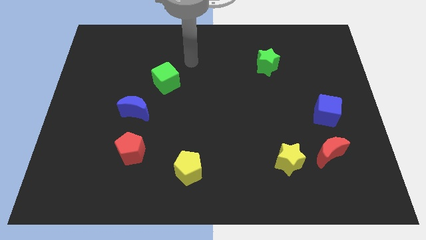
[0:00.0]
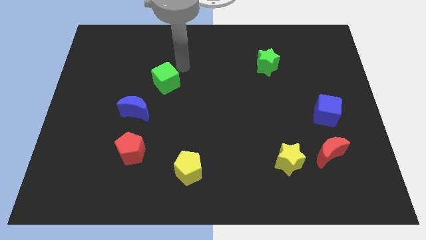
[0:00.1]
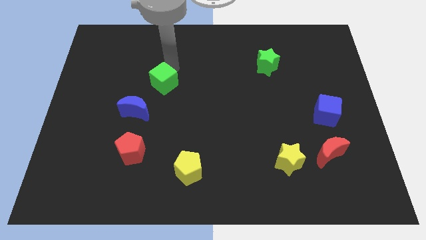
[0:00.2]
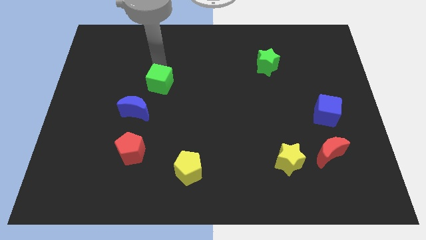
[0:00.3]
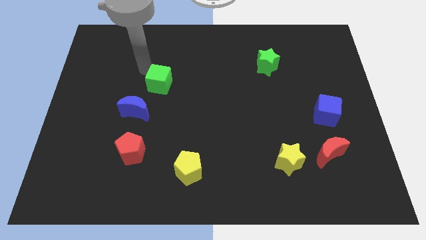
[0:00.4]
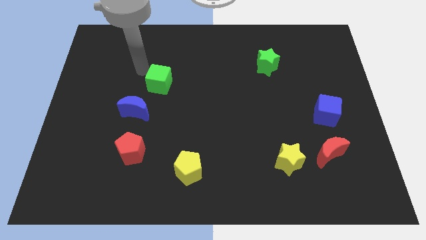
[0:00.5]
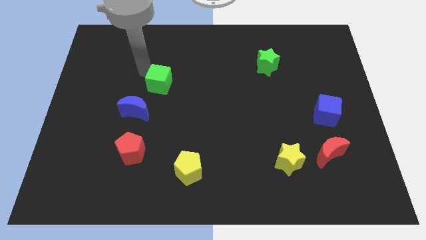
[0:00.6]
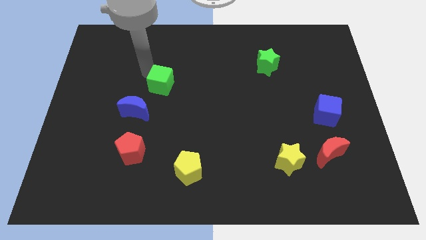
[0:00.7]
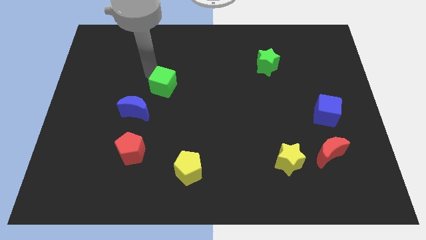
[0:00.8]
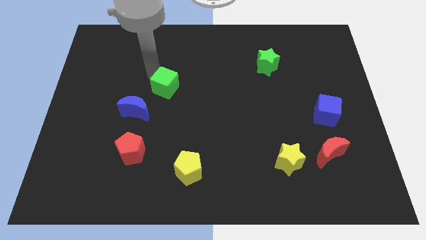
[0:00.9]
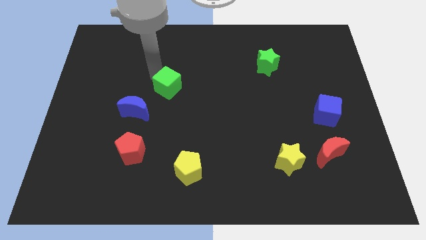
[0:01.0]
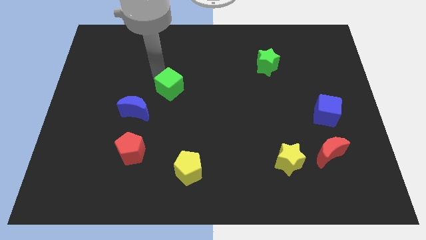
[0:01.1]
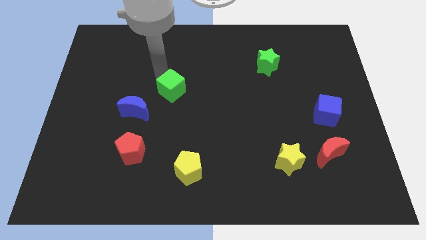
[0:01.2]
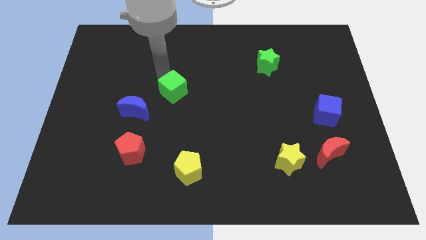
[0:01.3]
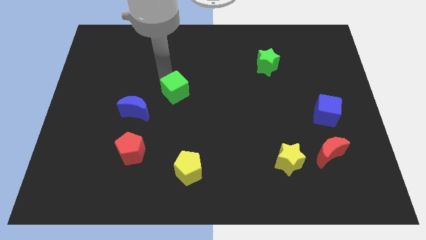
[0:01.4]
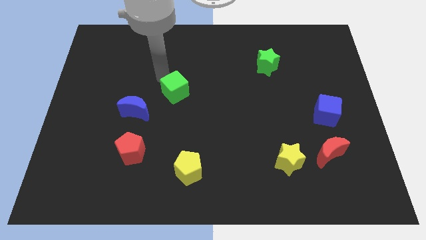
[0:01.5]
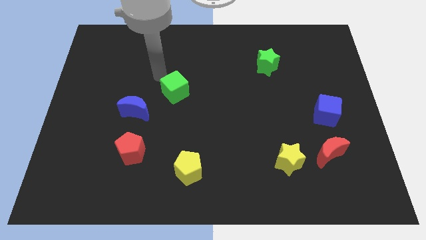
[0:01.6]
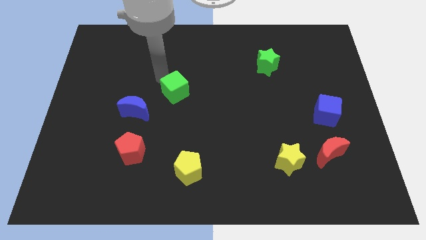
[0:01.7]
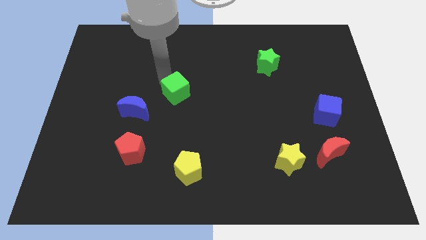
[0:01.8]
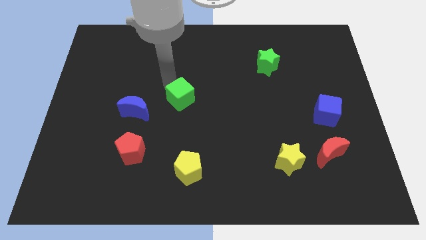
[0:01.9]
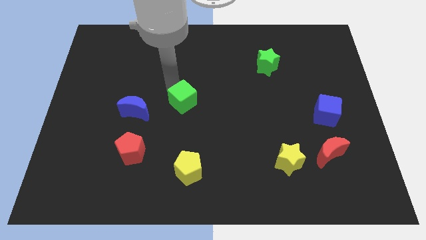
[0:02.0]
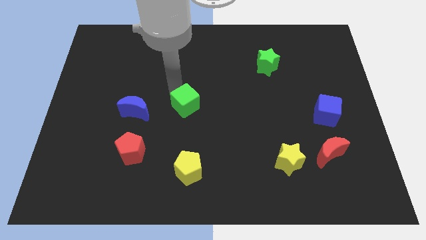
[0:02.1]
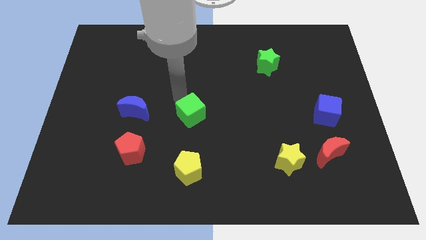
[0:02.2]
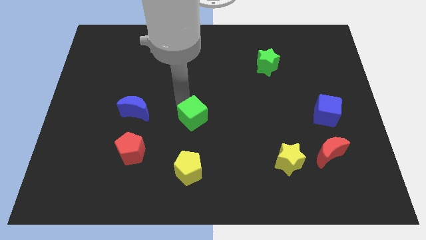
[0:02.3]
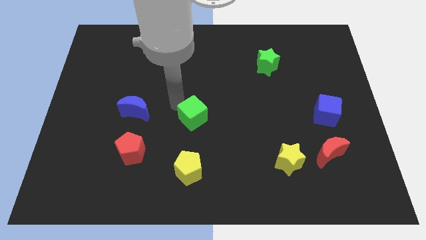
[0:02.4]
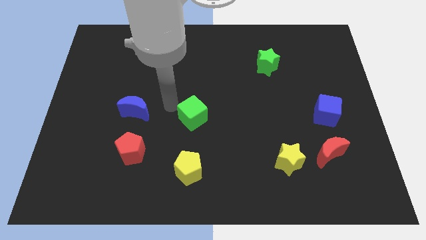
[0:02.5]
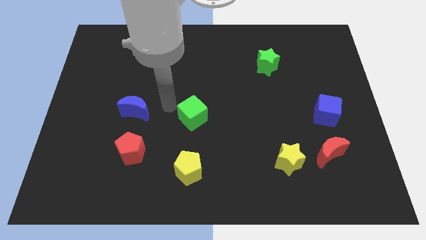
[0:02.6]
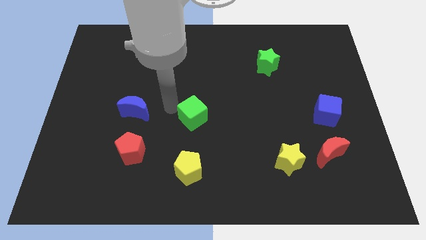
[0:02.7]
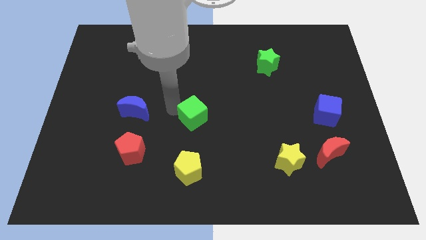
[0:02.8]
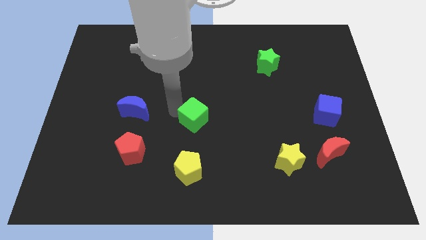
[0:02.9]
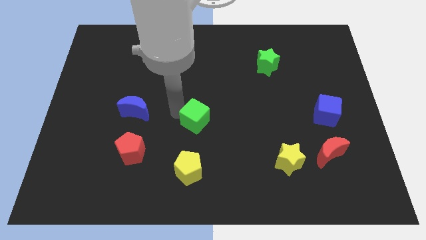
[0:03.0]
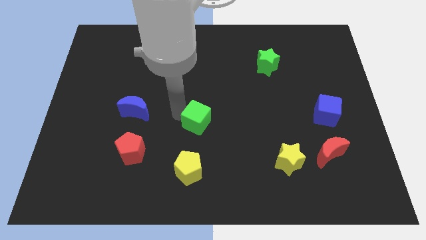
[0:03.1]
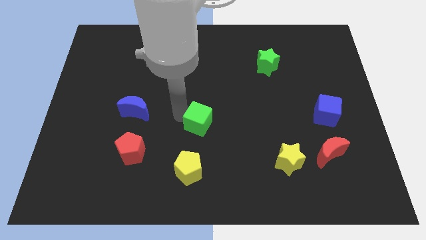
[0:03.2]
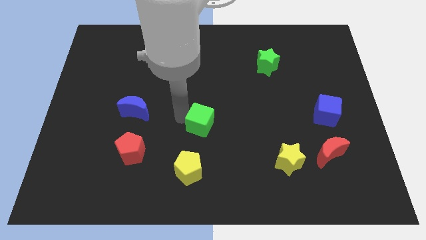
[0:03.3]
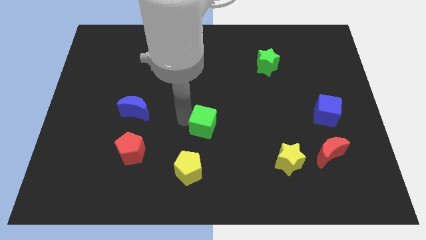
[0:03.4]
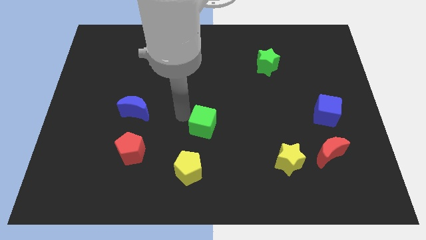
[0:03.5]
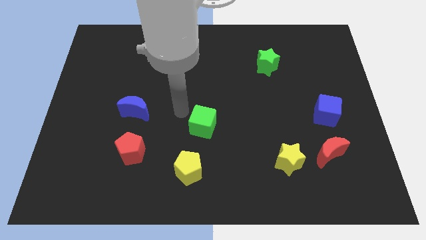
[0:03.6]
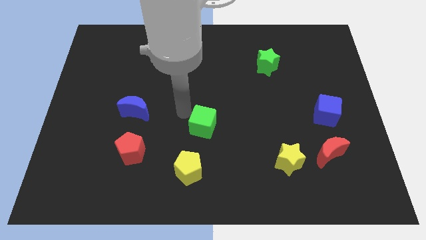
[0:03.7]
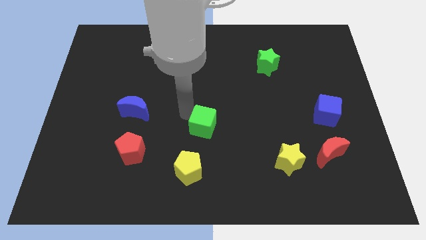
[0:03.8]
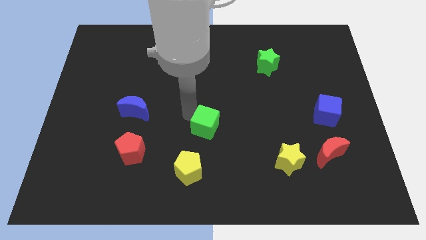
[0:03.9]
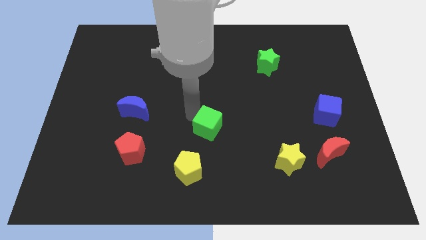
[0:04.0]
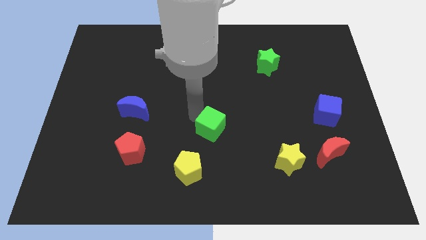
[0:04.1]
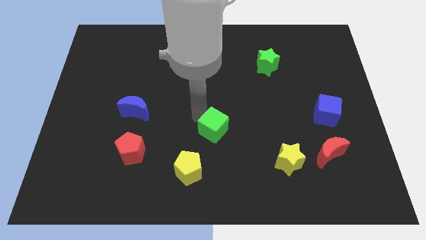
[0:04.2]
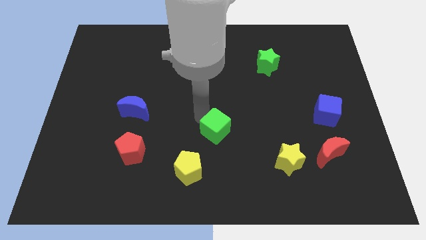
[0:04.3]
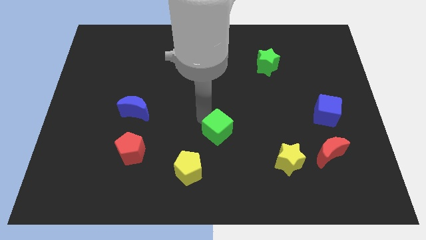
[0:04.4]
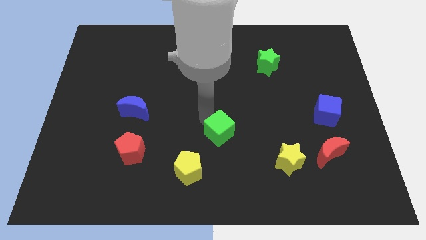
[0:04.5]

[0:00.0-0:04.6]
slide the green cube downwards and to the right diagonally

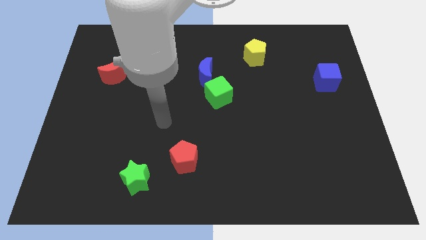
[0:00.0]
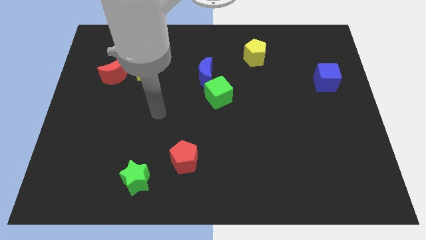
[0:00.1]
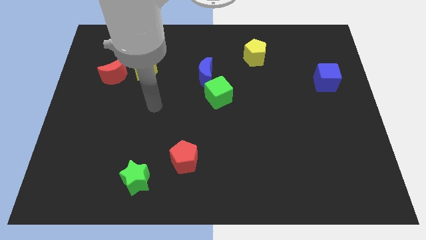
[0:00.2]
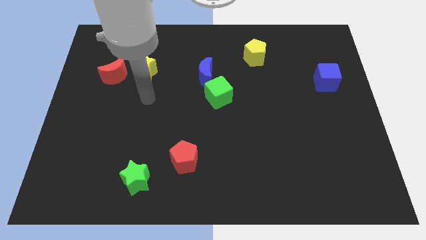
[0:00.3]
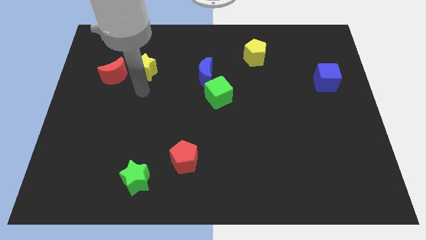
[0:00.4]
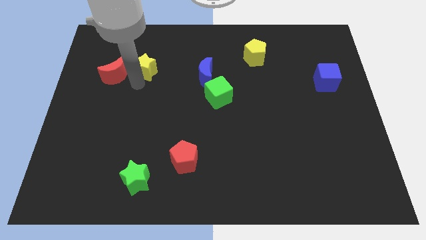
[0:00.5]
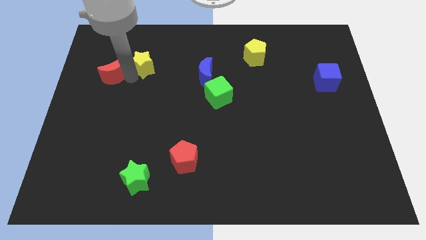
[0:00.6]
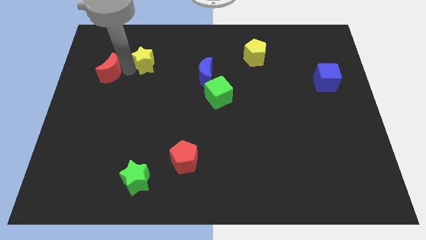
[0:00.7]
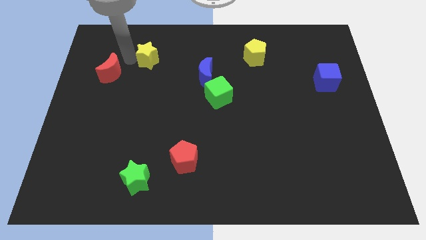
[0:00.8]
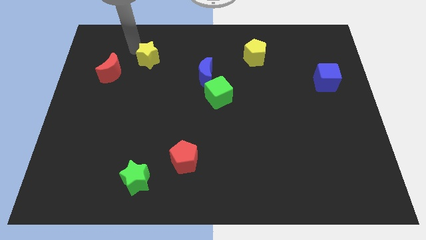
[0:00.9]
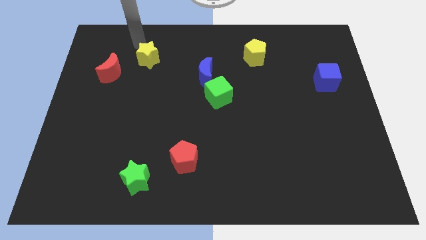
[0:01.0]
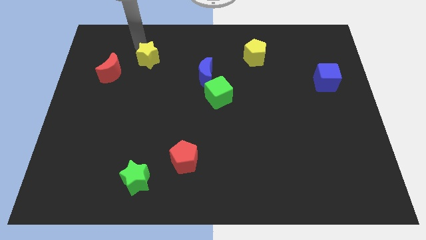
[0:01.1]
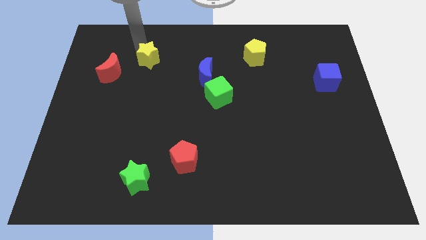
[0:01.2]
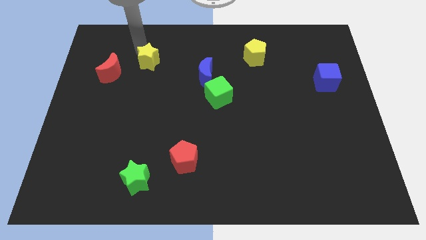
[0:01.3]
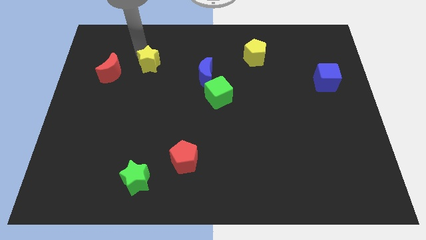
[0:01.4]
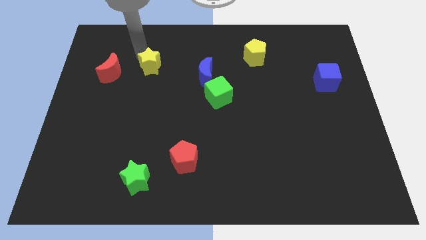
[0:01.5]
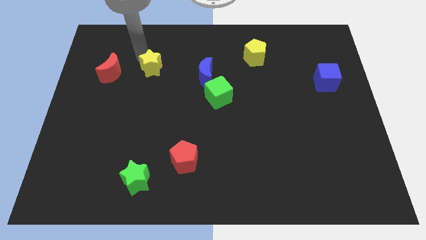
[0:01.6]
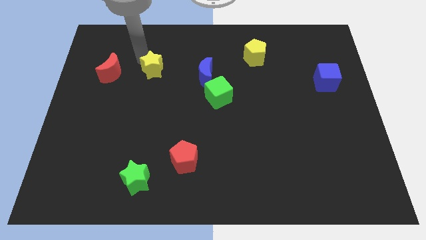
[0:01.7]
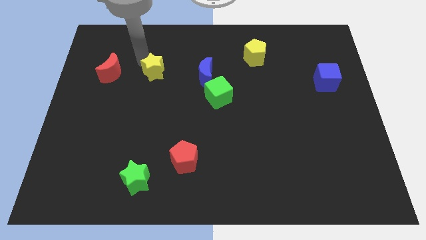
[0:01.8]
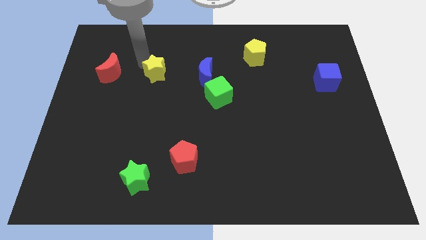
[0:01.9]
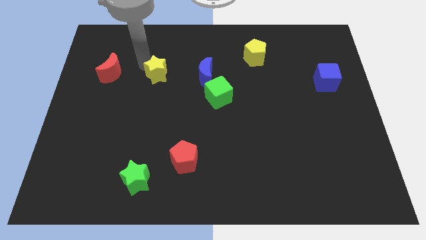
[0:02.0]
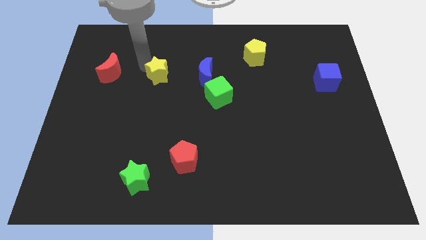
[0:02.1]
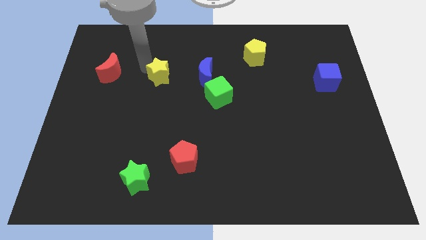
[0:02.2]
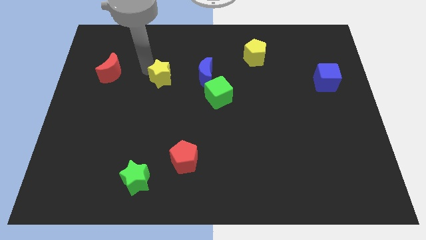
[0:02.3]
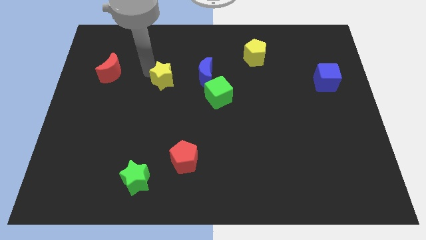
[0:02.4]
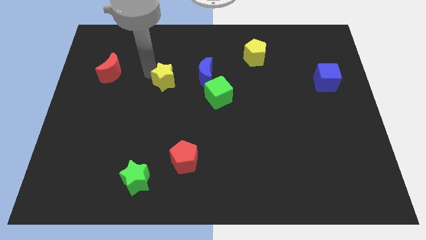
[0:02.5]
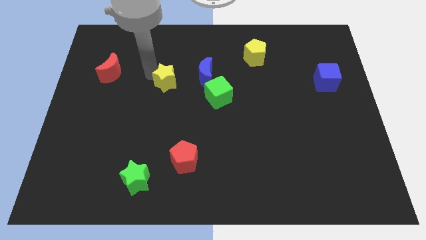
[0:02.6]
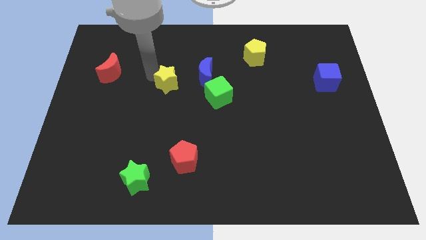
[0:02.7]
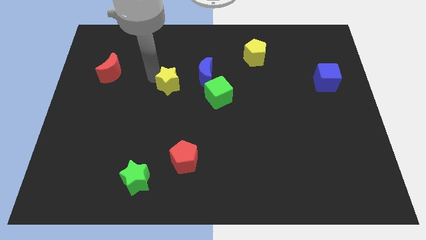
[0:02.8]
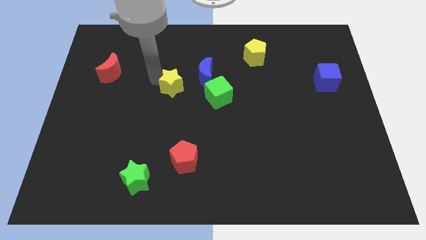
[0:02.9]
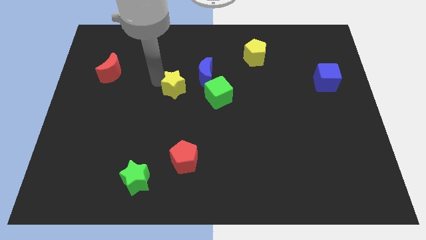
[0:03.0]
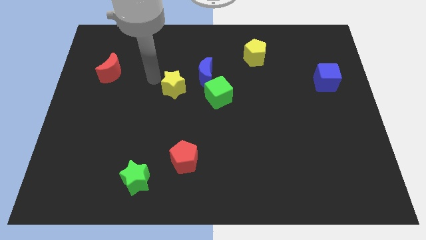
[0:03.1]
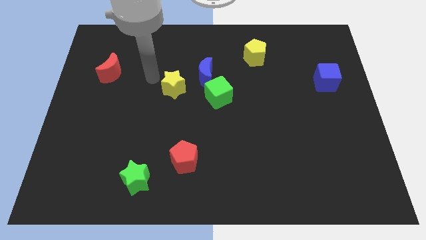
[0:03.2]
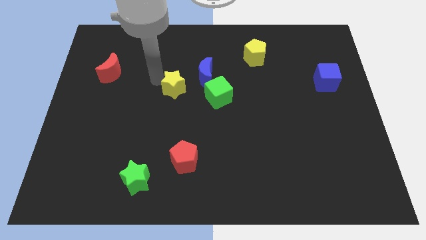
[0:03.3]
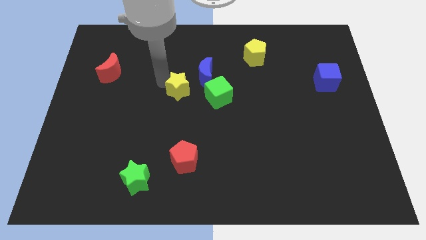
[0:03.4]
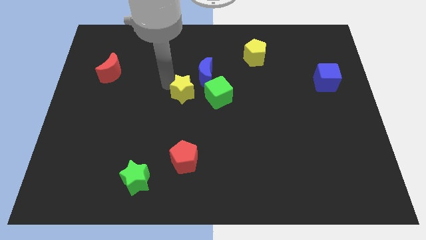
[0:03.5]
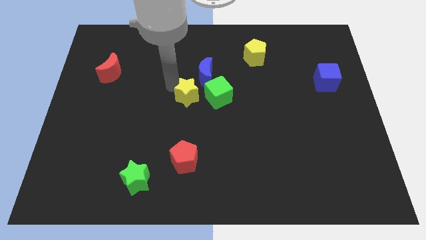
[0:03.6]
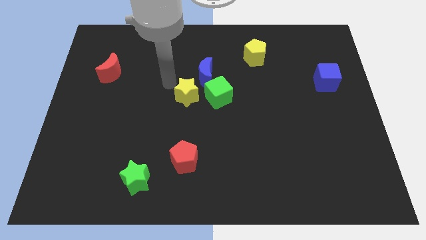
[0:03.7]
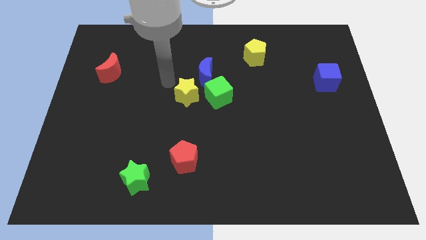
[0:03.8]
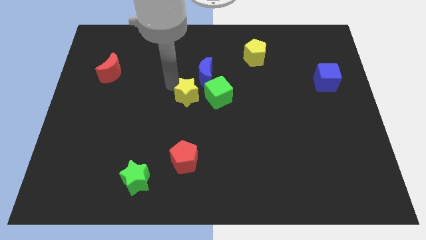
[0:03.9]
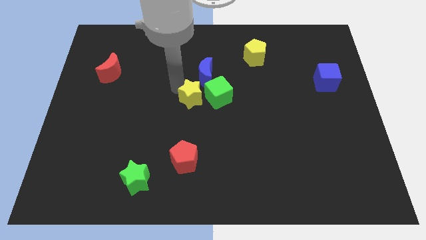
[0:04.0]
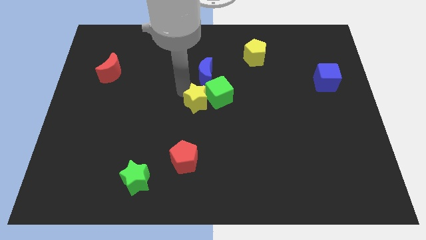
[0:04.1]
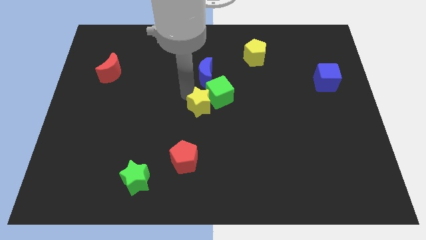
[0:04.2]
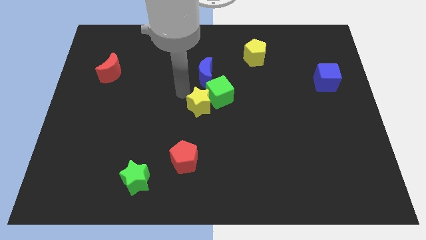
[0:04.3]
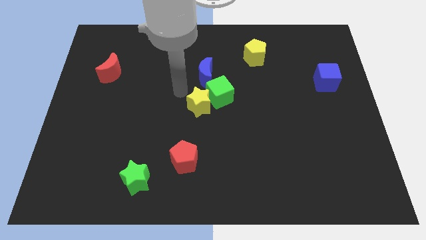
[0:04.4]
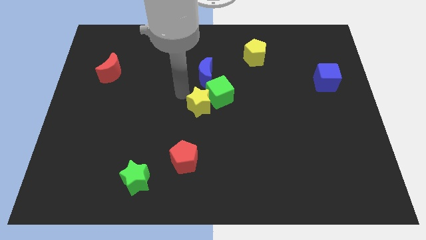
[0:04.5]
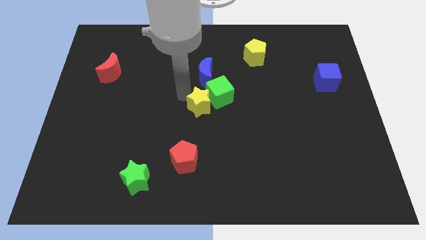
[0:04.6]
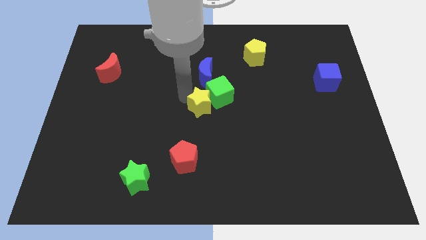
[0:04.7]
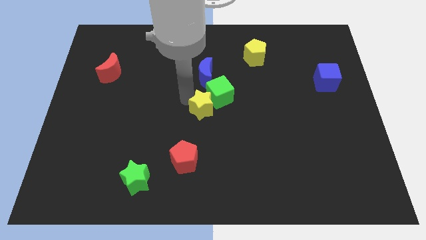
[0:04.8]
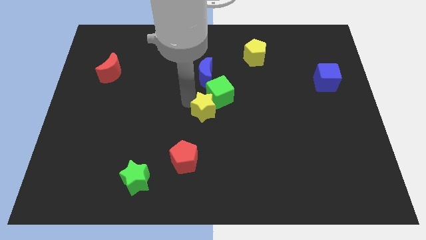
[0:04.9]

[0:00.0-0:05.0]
slide the yellow star diagonally downwards and right
